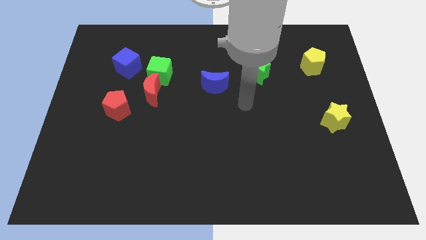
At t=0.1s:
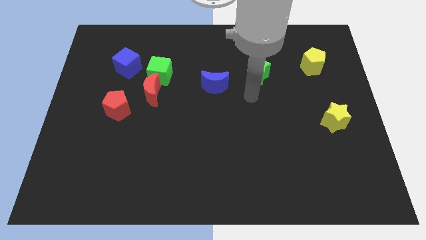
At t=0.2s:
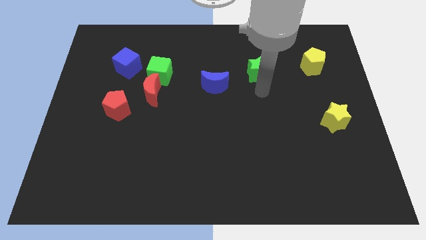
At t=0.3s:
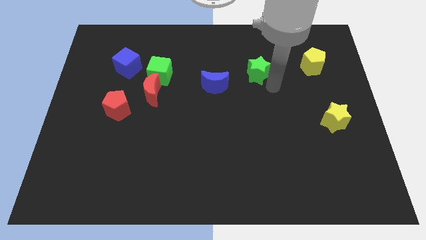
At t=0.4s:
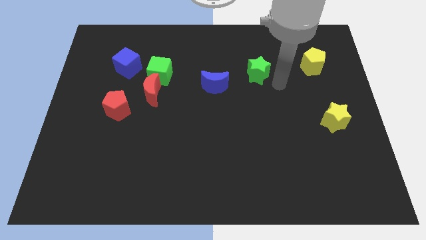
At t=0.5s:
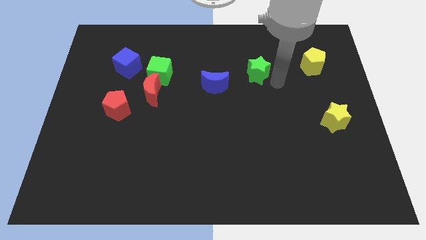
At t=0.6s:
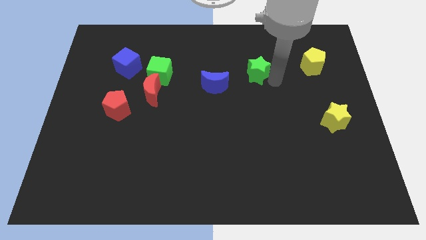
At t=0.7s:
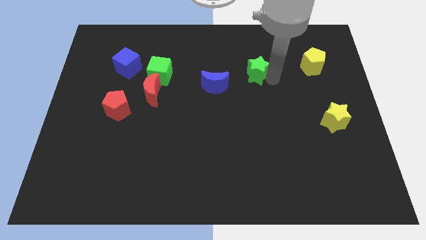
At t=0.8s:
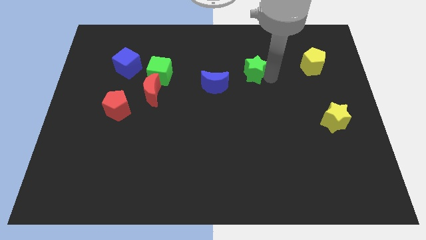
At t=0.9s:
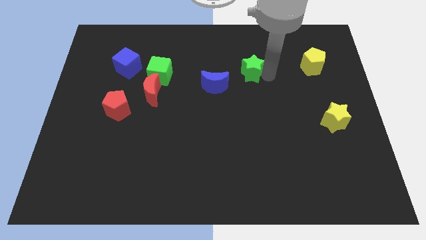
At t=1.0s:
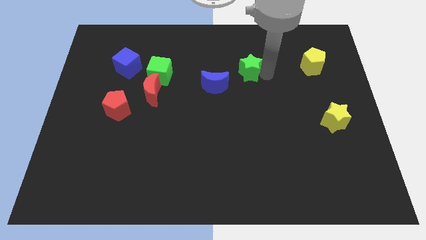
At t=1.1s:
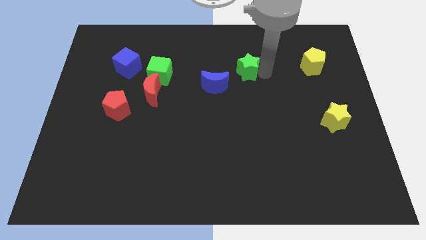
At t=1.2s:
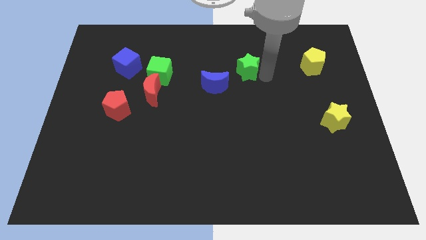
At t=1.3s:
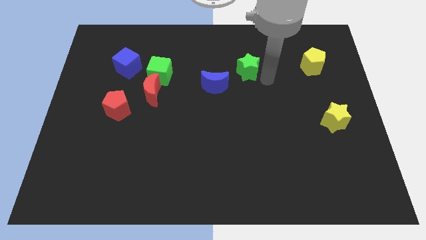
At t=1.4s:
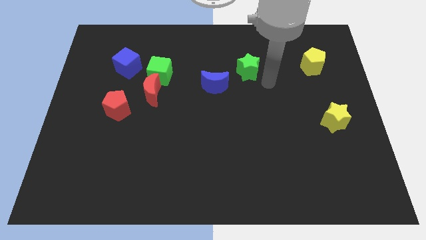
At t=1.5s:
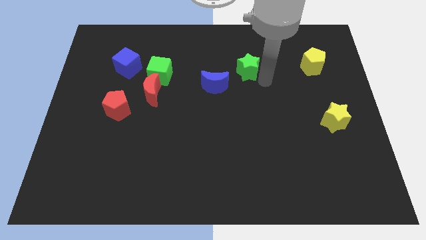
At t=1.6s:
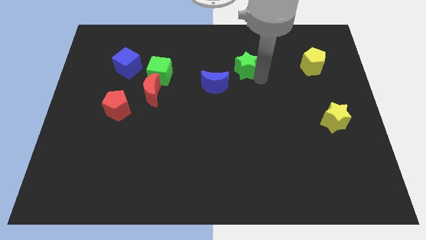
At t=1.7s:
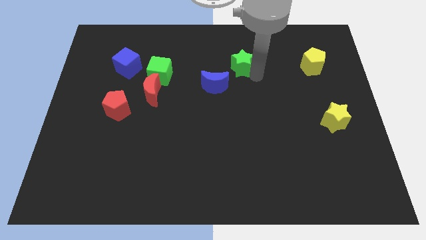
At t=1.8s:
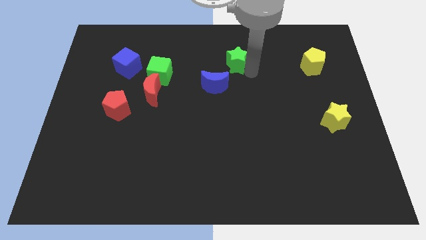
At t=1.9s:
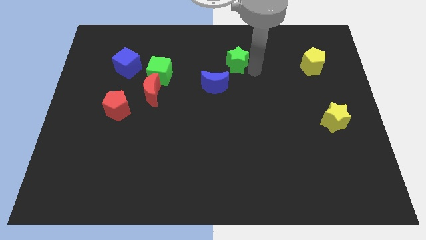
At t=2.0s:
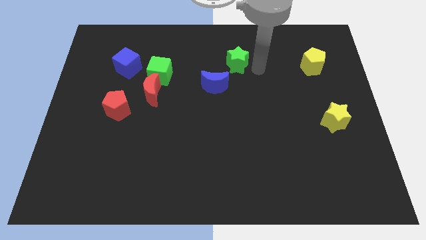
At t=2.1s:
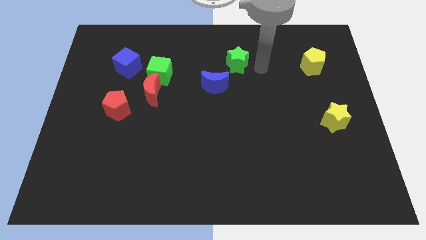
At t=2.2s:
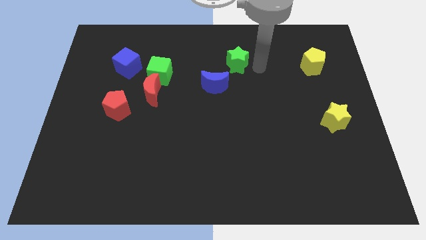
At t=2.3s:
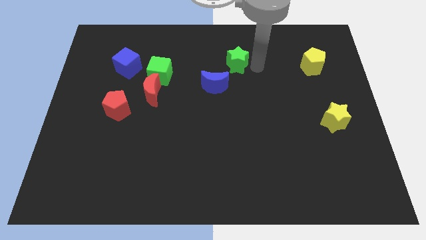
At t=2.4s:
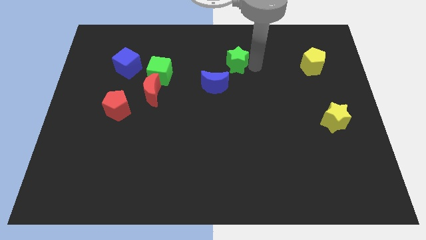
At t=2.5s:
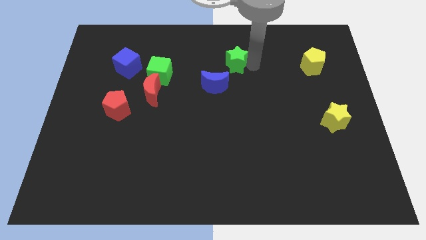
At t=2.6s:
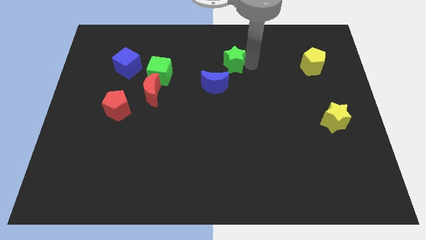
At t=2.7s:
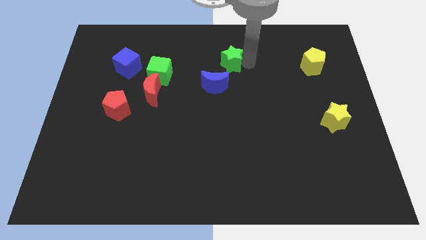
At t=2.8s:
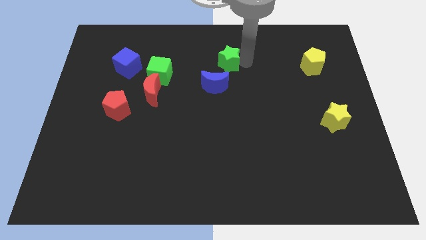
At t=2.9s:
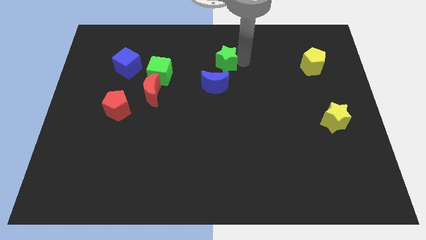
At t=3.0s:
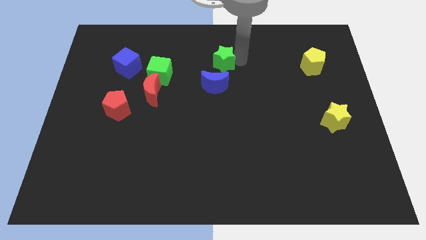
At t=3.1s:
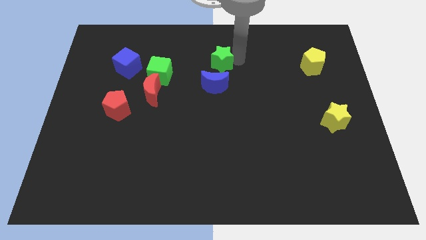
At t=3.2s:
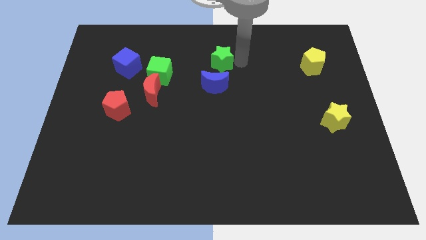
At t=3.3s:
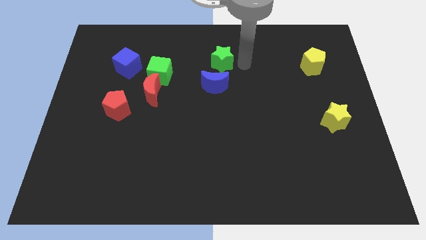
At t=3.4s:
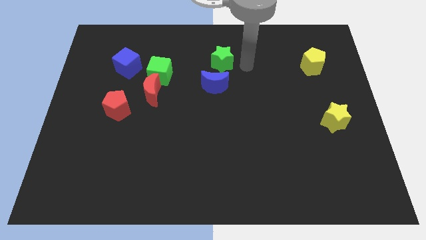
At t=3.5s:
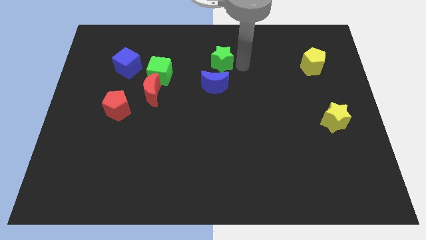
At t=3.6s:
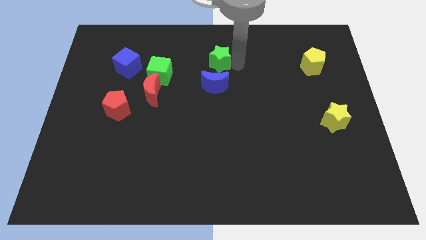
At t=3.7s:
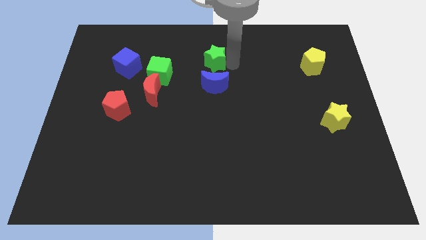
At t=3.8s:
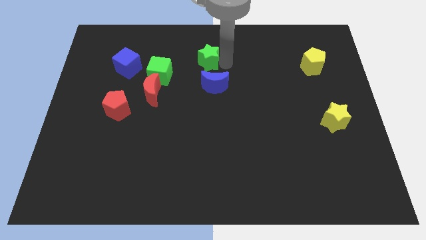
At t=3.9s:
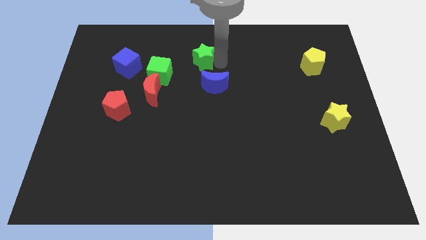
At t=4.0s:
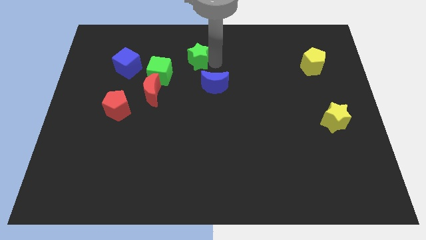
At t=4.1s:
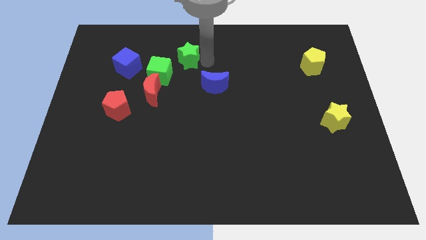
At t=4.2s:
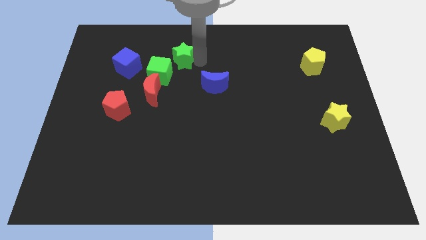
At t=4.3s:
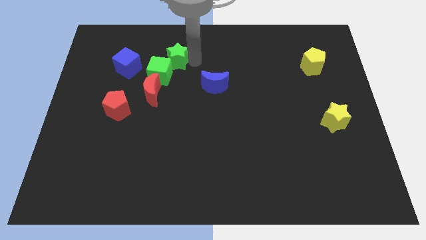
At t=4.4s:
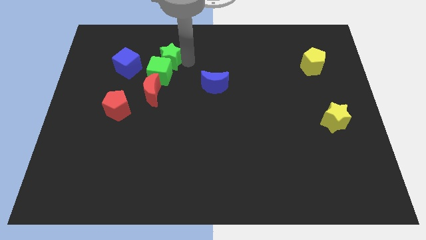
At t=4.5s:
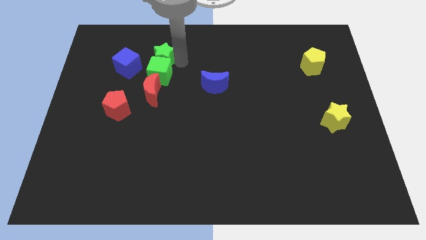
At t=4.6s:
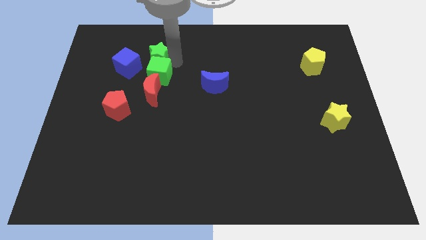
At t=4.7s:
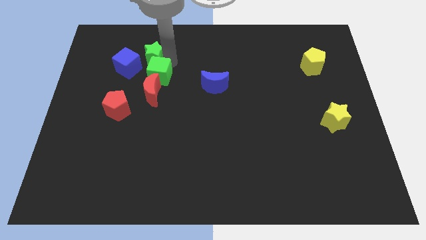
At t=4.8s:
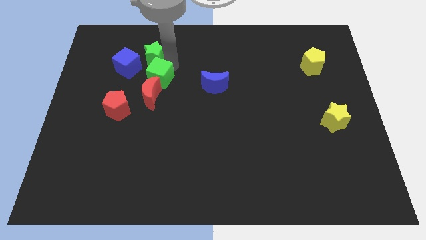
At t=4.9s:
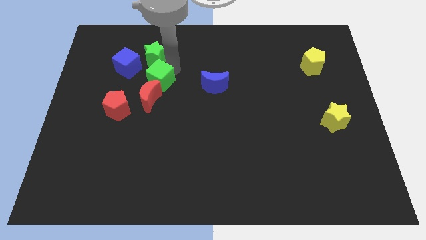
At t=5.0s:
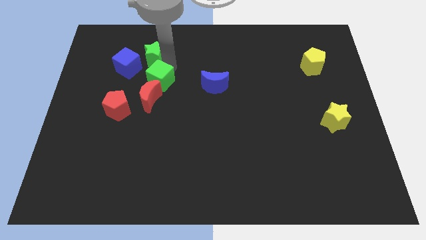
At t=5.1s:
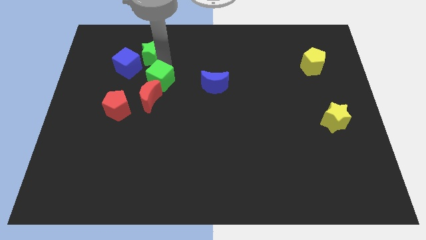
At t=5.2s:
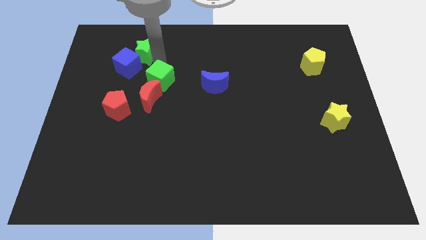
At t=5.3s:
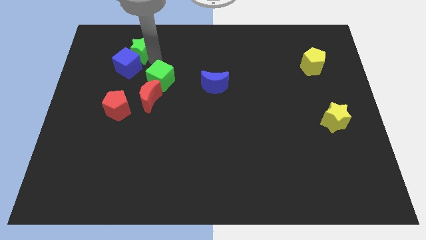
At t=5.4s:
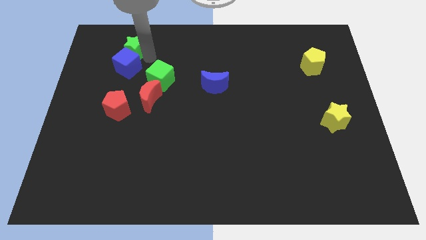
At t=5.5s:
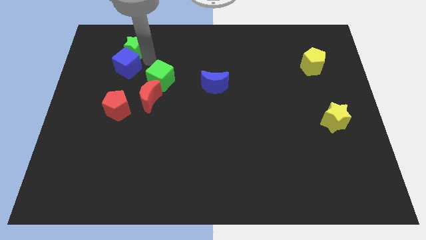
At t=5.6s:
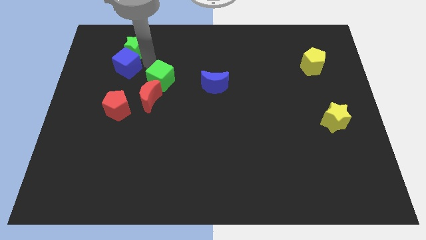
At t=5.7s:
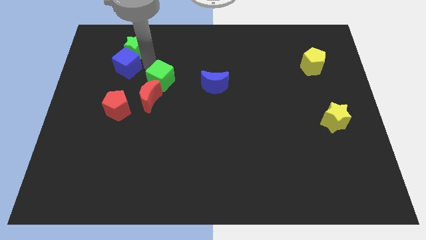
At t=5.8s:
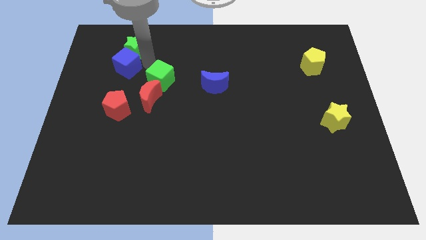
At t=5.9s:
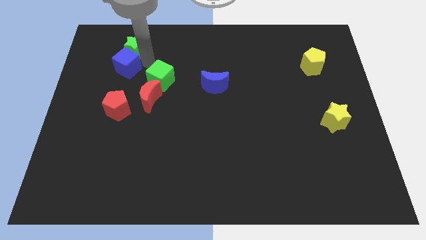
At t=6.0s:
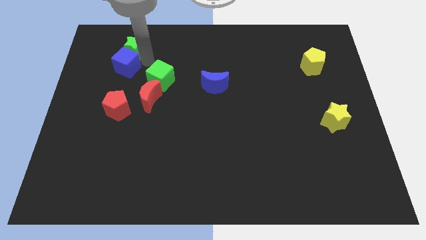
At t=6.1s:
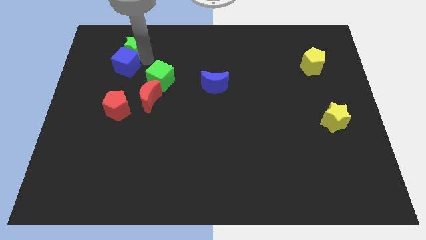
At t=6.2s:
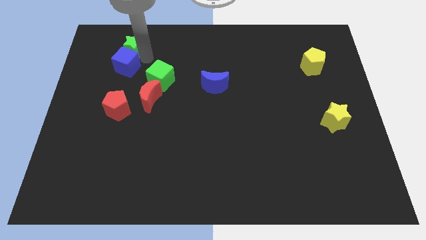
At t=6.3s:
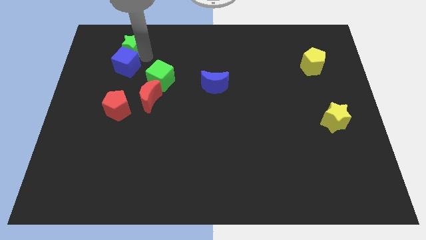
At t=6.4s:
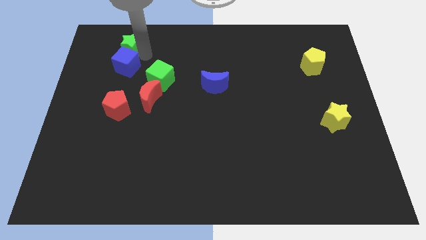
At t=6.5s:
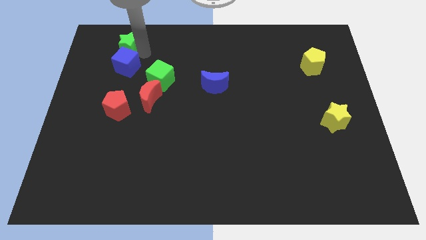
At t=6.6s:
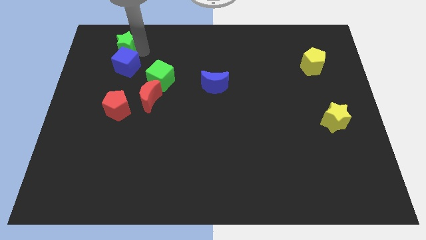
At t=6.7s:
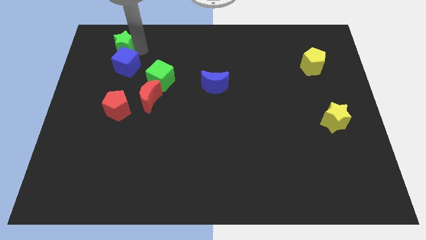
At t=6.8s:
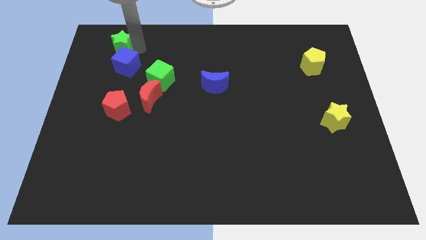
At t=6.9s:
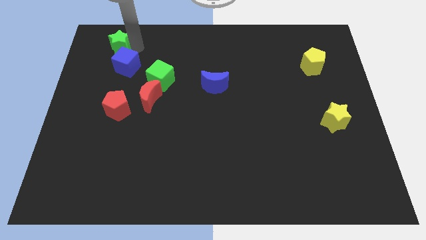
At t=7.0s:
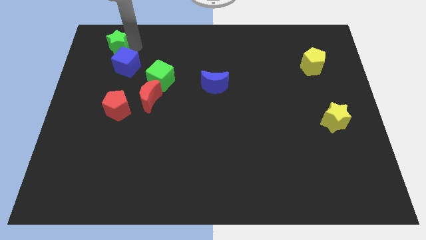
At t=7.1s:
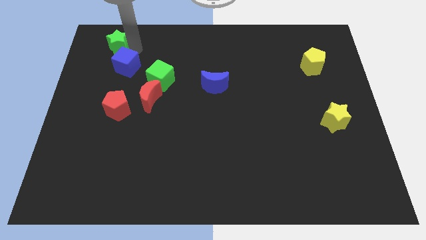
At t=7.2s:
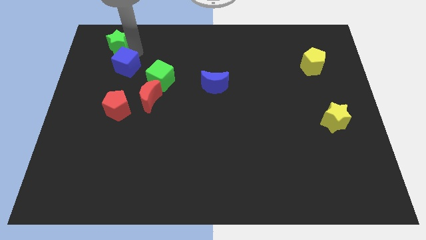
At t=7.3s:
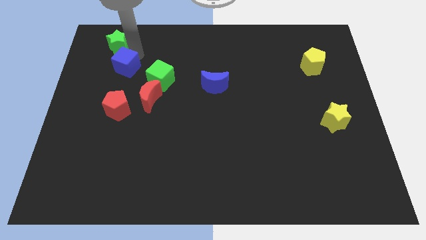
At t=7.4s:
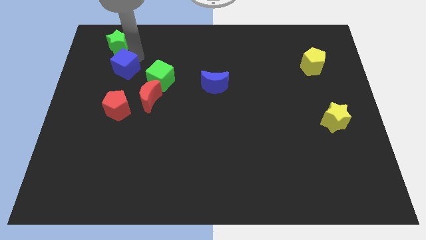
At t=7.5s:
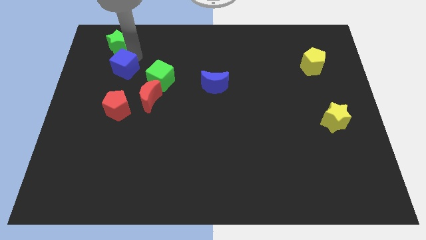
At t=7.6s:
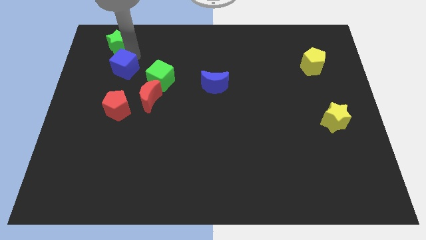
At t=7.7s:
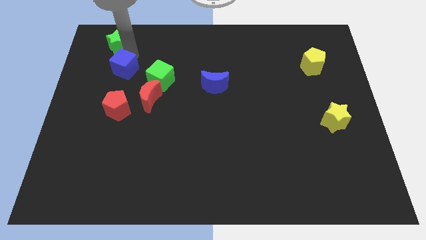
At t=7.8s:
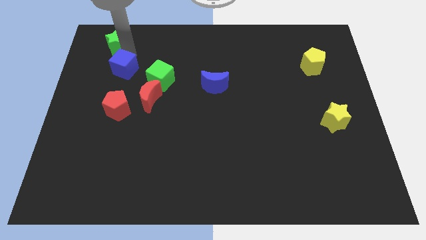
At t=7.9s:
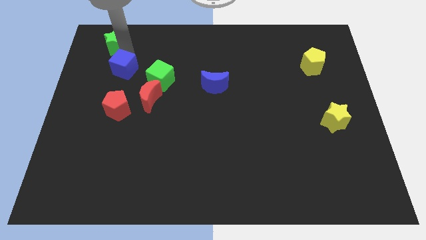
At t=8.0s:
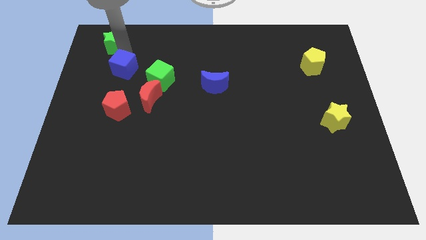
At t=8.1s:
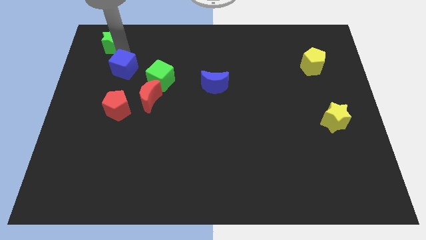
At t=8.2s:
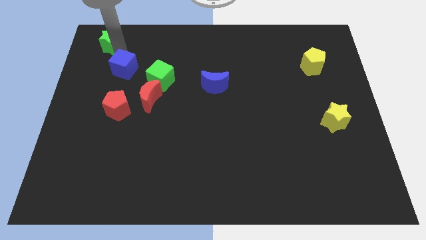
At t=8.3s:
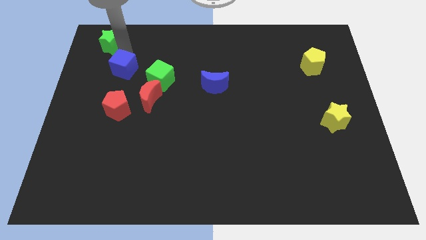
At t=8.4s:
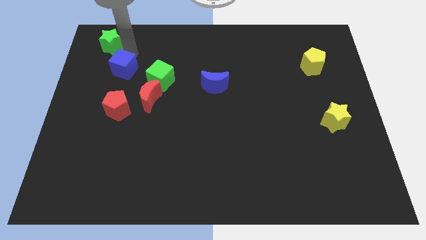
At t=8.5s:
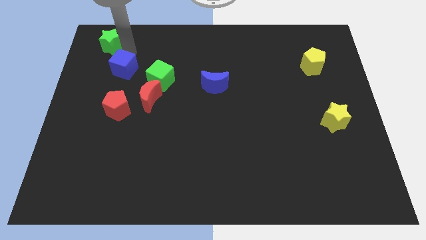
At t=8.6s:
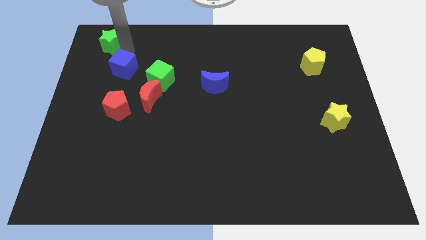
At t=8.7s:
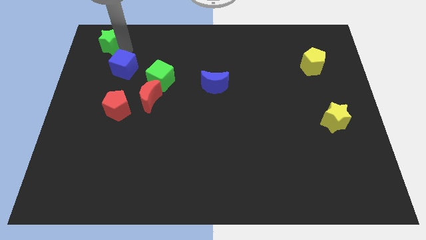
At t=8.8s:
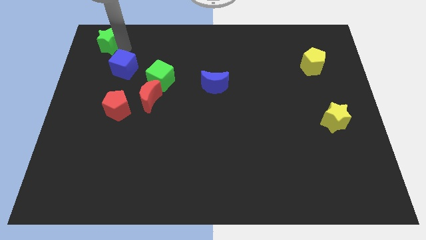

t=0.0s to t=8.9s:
move the green star to the upper left corner
